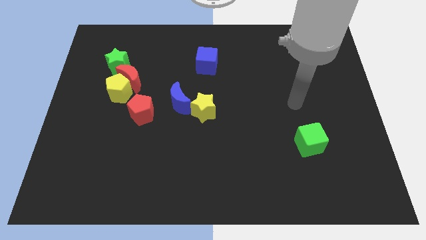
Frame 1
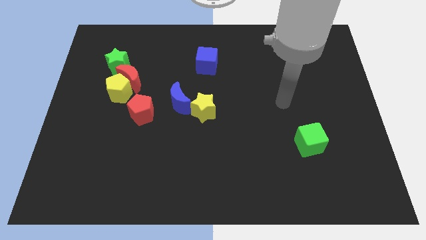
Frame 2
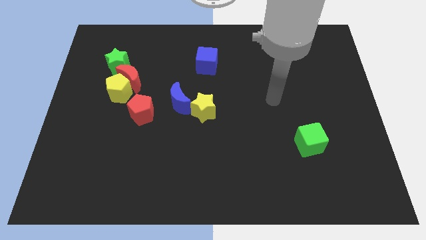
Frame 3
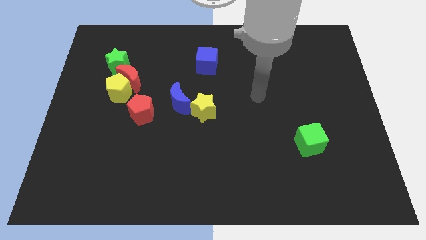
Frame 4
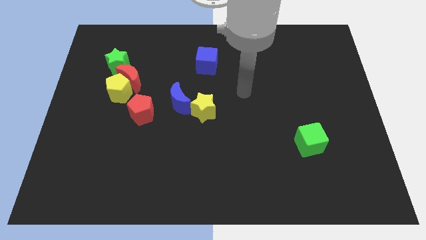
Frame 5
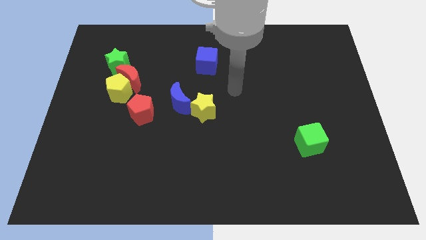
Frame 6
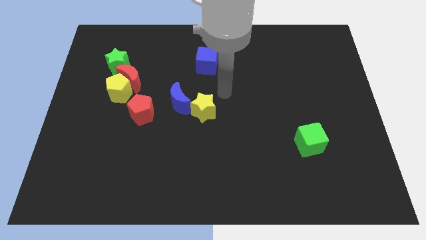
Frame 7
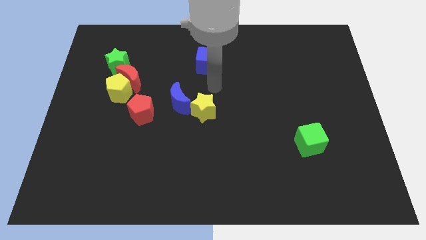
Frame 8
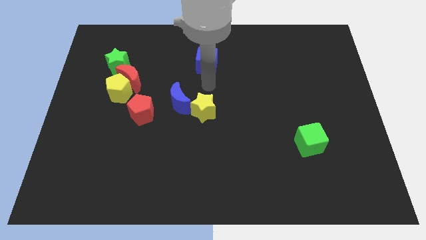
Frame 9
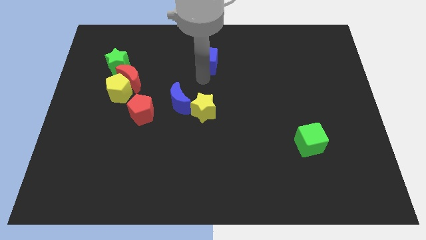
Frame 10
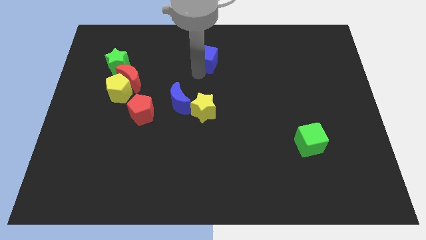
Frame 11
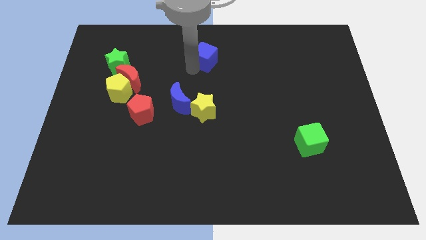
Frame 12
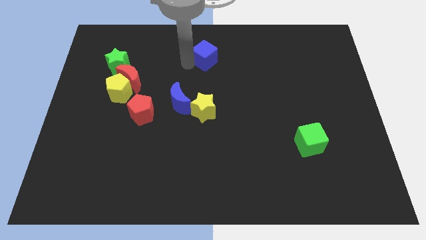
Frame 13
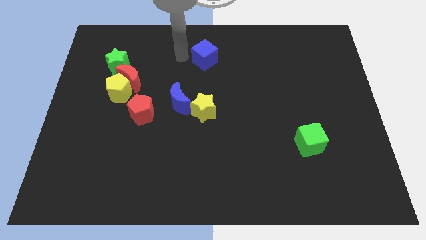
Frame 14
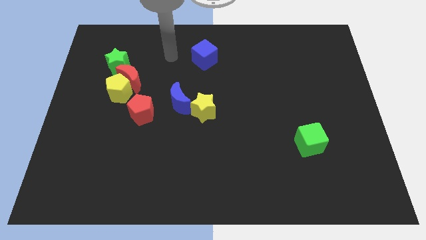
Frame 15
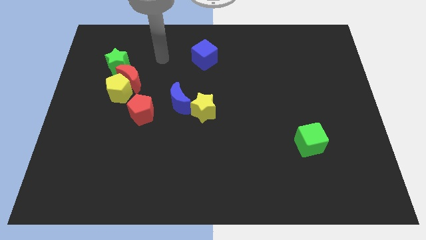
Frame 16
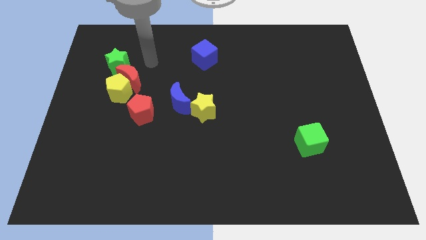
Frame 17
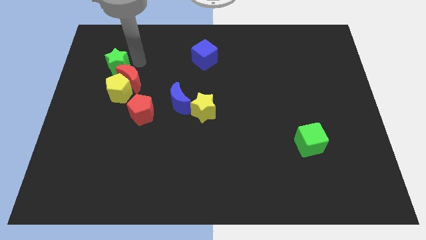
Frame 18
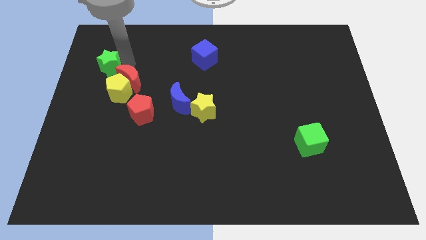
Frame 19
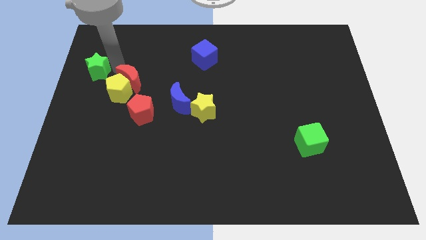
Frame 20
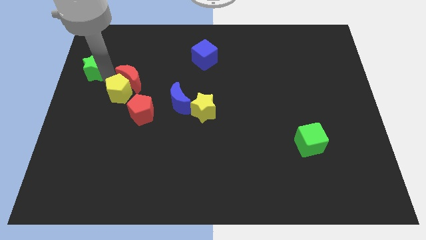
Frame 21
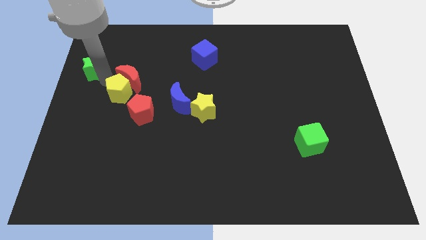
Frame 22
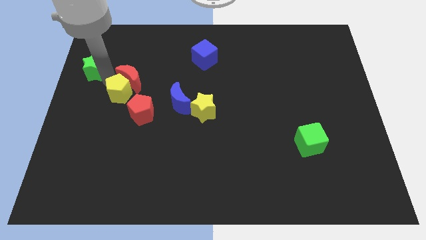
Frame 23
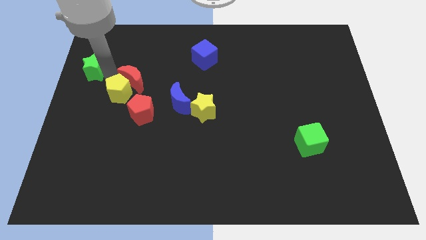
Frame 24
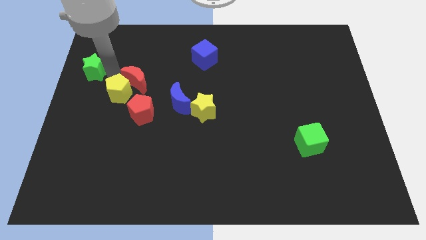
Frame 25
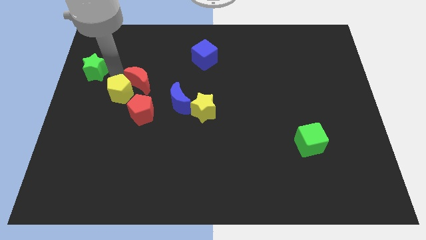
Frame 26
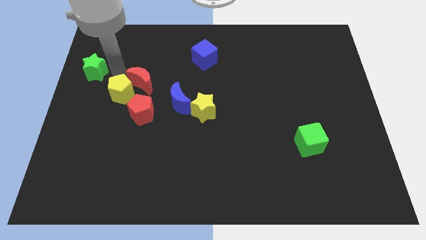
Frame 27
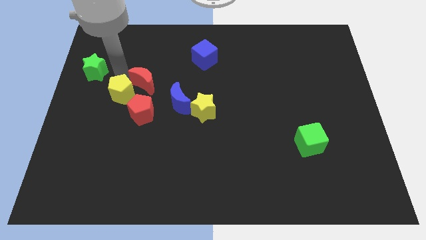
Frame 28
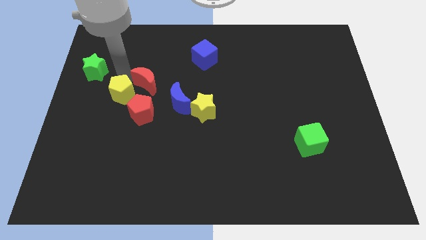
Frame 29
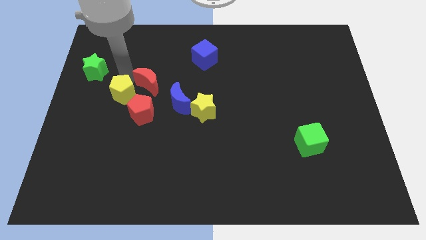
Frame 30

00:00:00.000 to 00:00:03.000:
pull the red moon apart from the yellow pentagon and green star

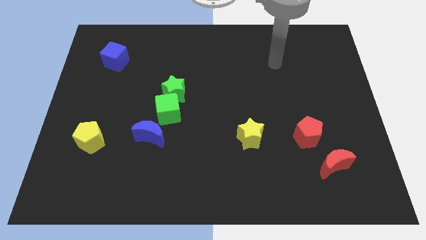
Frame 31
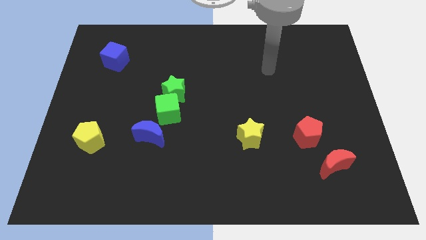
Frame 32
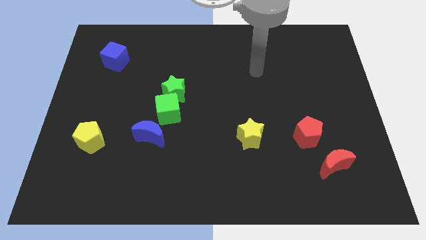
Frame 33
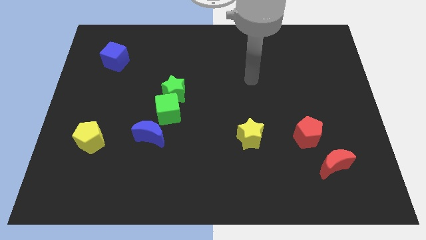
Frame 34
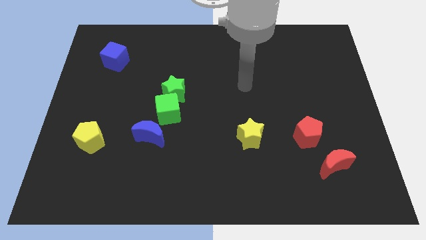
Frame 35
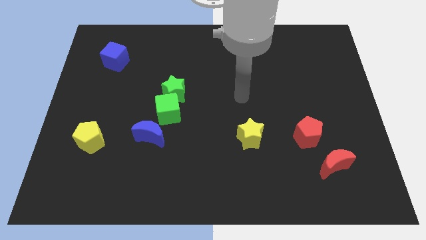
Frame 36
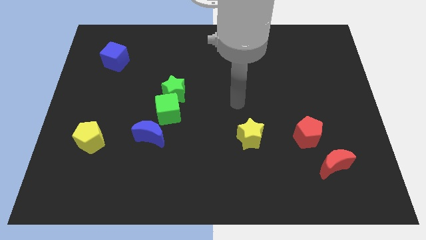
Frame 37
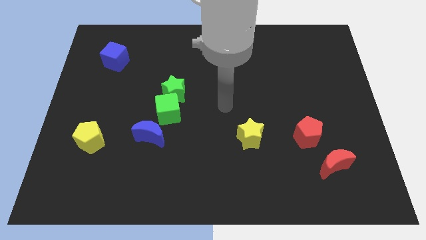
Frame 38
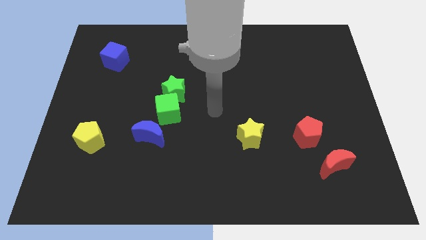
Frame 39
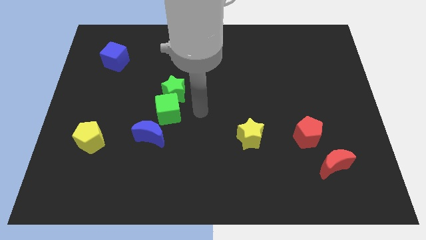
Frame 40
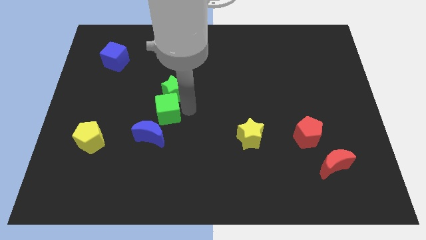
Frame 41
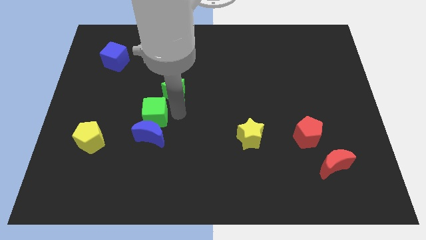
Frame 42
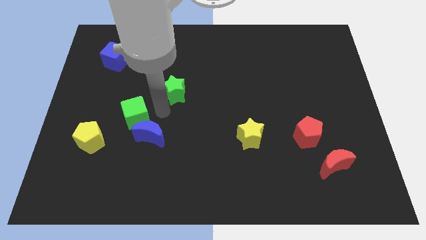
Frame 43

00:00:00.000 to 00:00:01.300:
move the green star away from the green cube

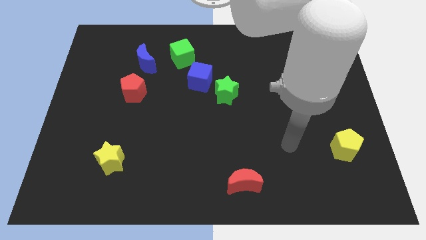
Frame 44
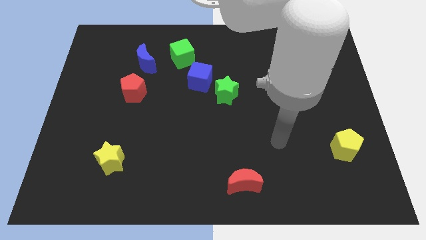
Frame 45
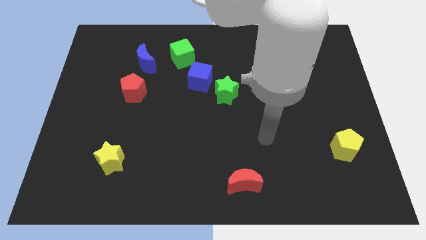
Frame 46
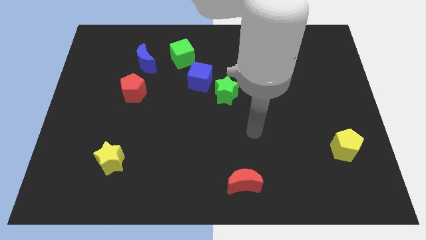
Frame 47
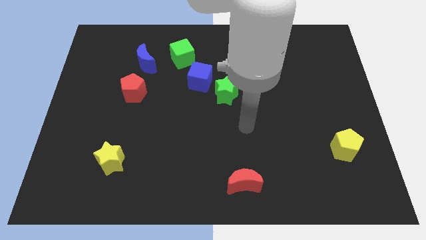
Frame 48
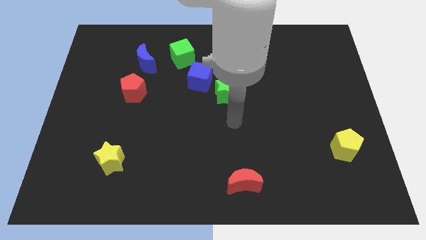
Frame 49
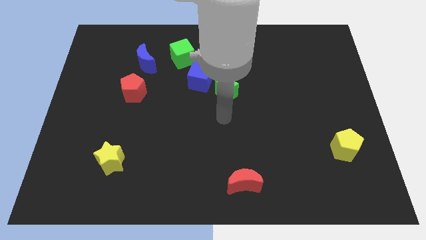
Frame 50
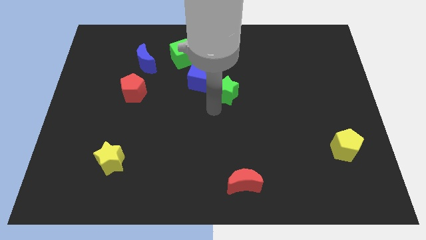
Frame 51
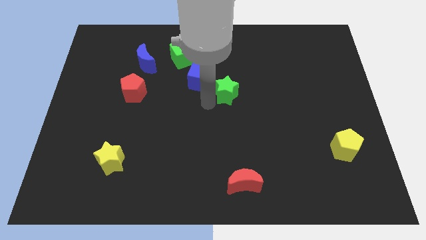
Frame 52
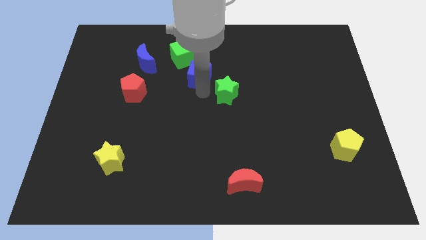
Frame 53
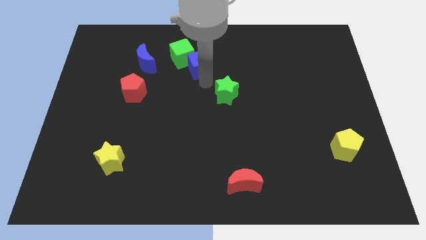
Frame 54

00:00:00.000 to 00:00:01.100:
pull the green star apart from the blue cube

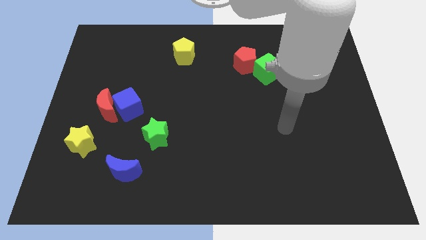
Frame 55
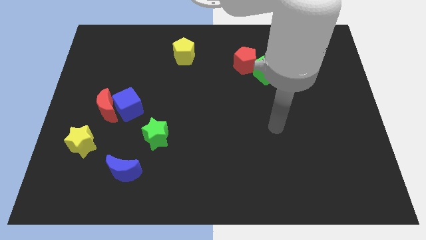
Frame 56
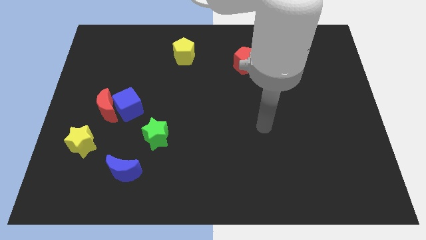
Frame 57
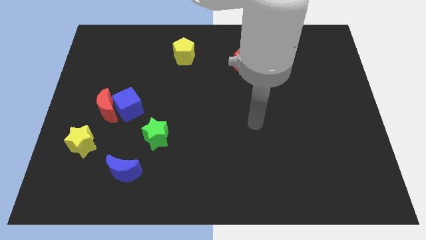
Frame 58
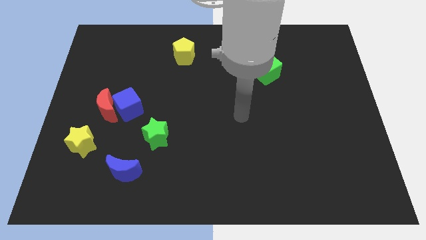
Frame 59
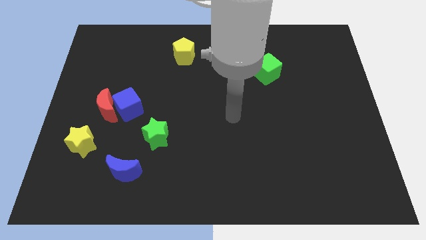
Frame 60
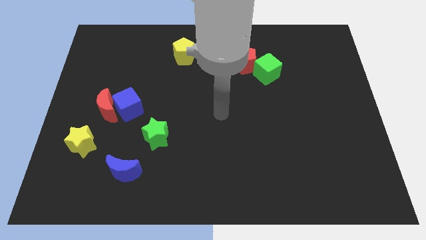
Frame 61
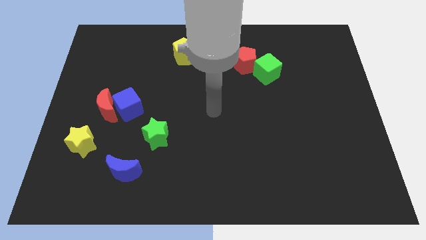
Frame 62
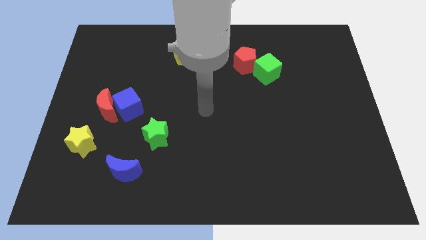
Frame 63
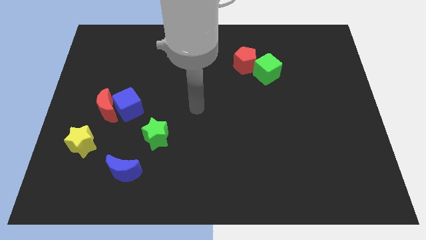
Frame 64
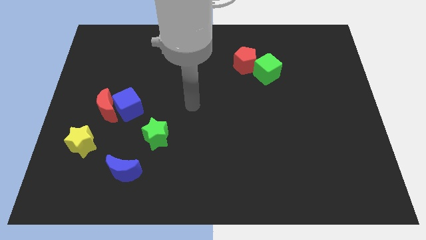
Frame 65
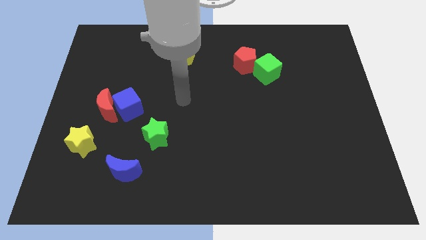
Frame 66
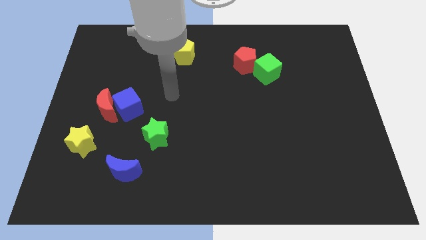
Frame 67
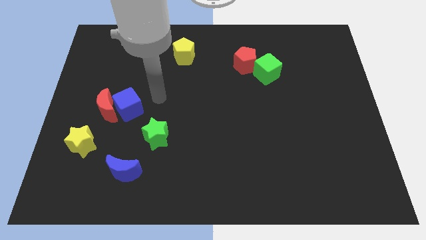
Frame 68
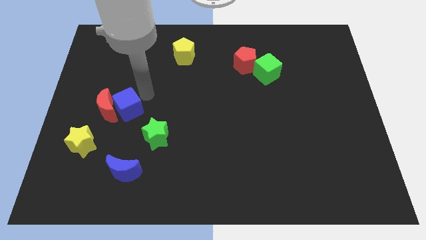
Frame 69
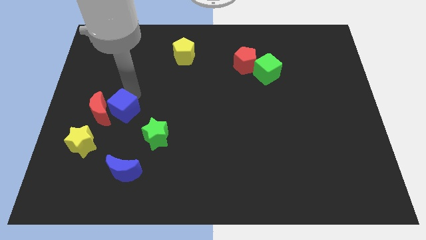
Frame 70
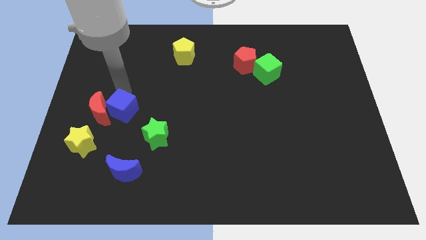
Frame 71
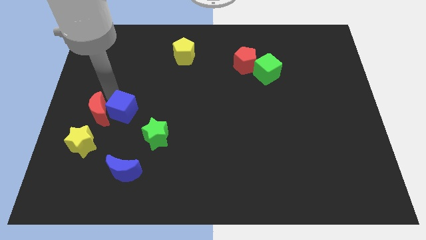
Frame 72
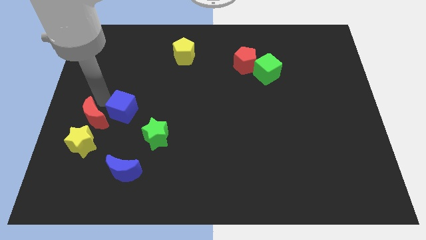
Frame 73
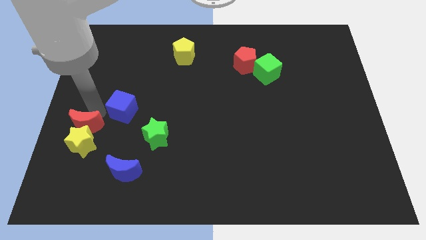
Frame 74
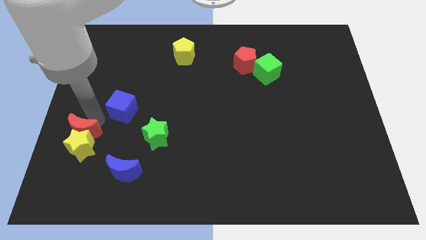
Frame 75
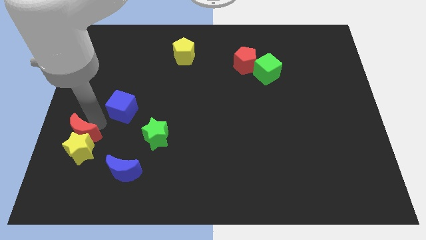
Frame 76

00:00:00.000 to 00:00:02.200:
move the blue cube away from the red moon

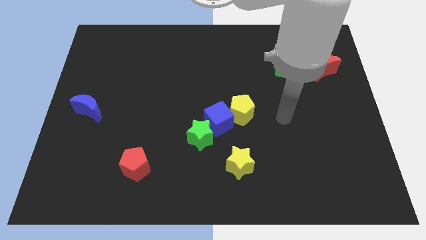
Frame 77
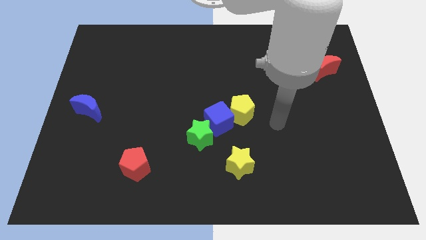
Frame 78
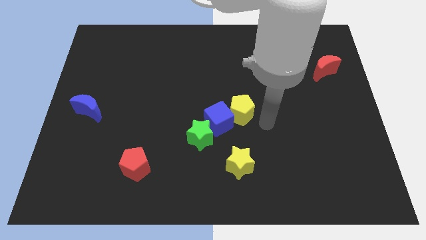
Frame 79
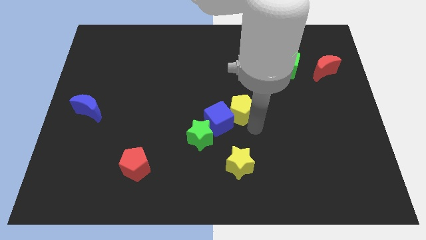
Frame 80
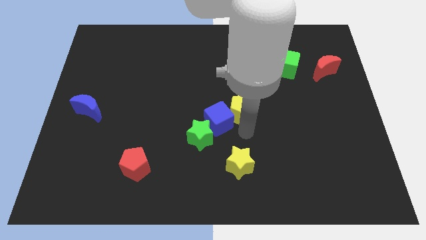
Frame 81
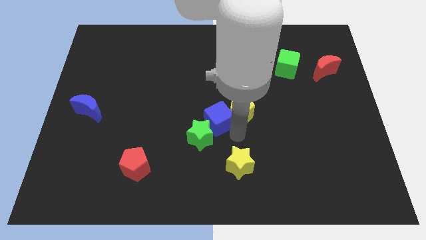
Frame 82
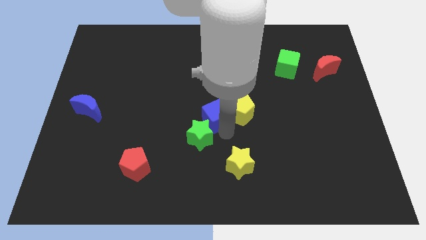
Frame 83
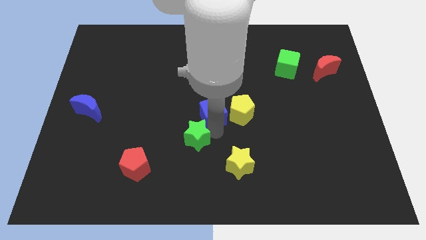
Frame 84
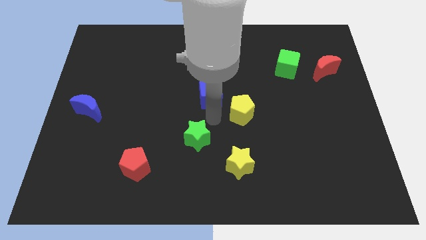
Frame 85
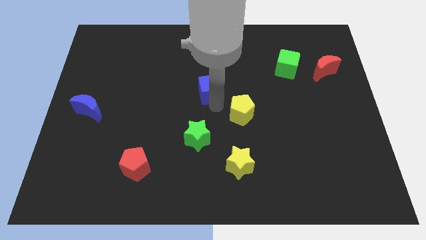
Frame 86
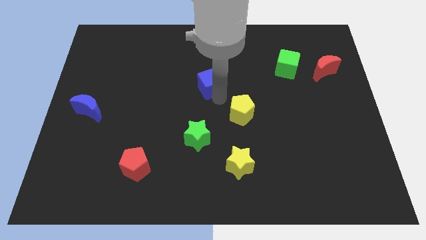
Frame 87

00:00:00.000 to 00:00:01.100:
separate the yellow pentagon from the blue cube

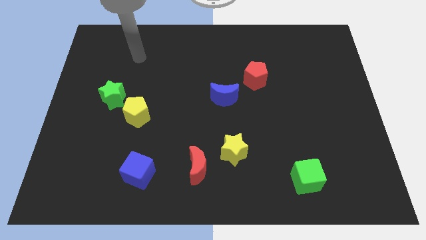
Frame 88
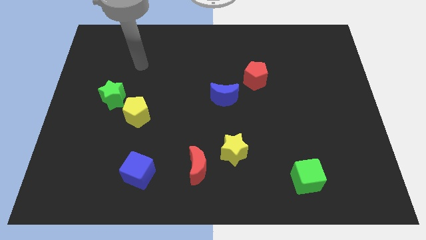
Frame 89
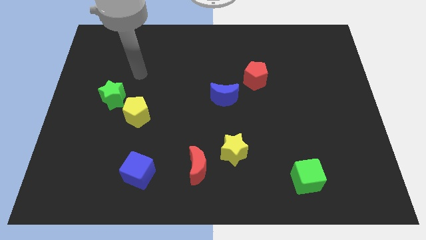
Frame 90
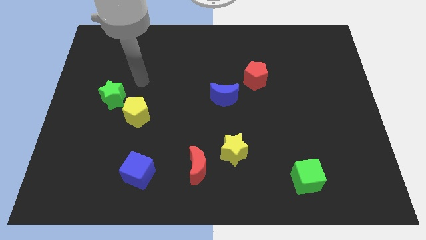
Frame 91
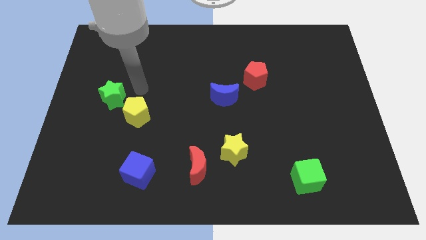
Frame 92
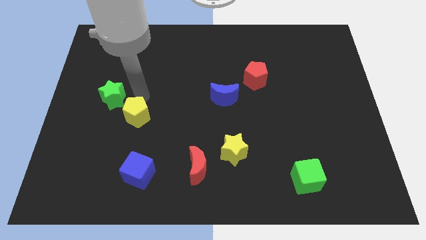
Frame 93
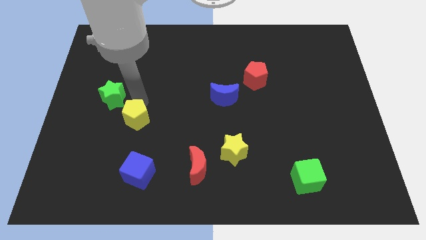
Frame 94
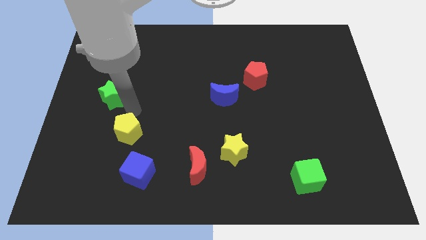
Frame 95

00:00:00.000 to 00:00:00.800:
pull the green star apart from the yellow pentagon
